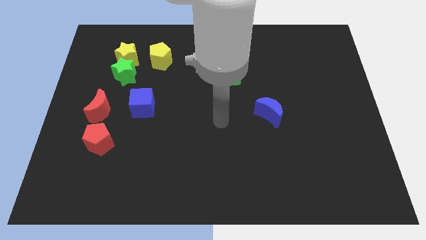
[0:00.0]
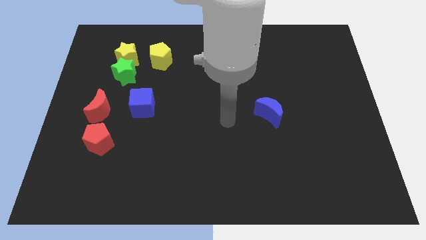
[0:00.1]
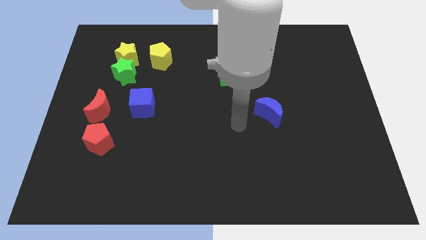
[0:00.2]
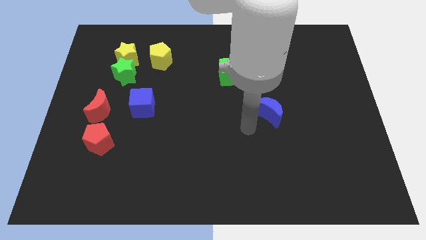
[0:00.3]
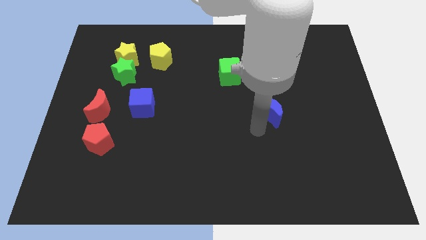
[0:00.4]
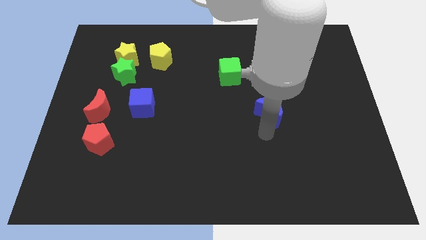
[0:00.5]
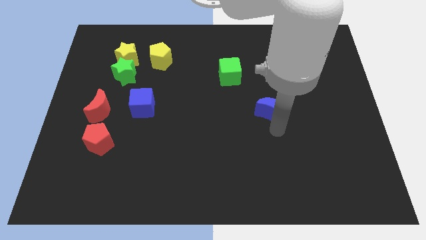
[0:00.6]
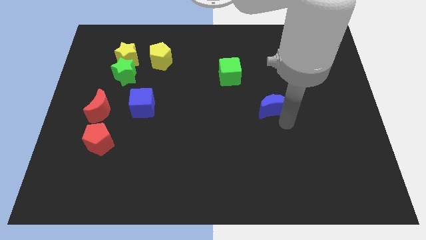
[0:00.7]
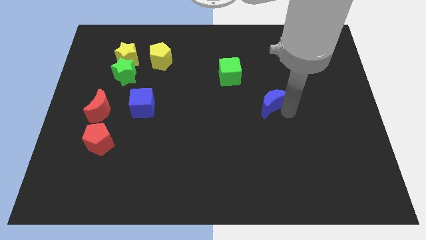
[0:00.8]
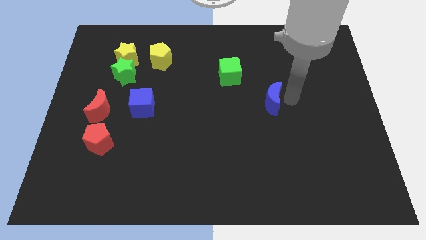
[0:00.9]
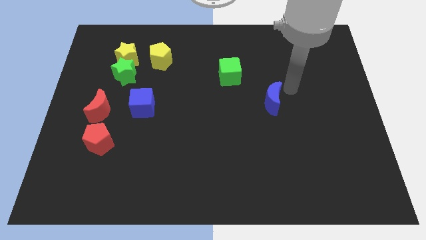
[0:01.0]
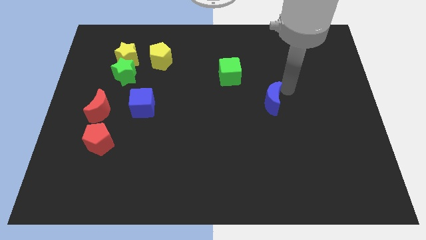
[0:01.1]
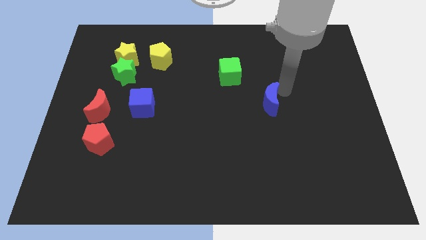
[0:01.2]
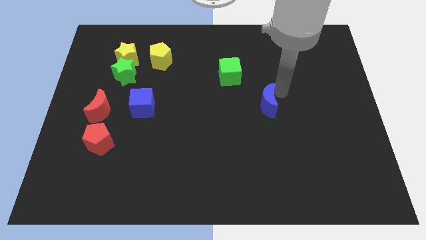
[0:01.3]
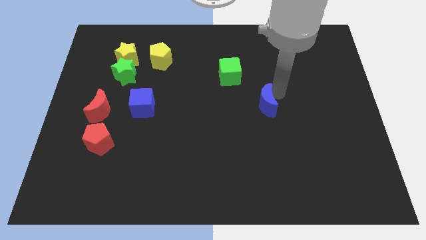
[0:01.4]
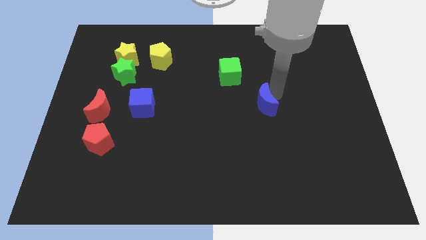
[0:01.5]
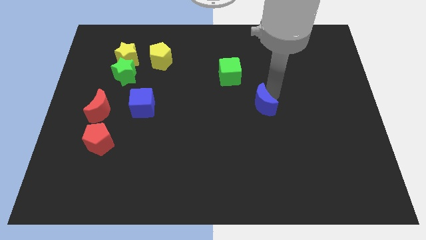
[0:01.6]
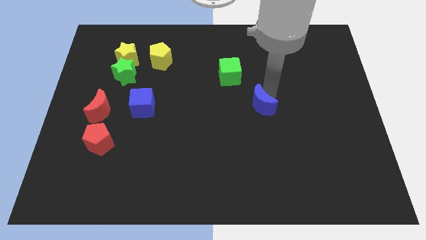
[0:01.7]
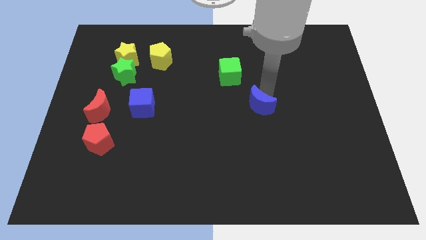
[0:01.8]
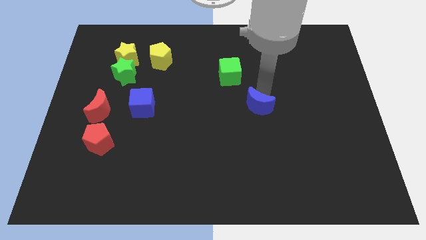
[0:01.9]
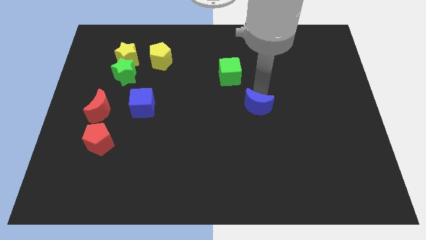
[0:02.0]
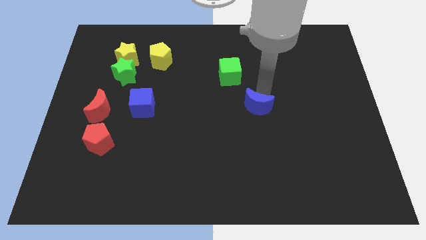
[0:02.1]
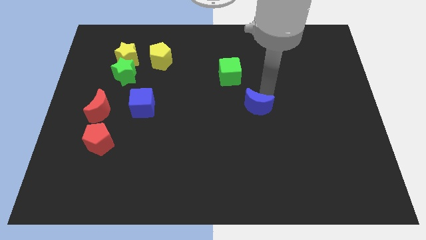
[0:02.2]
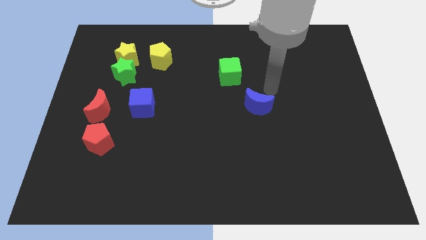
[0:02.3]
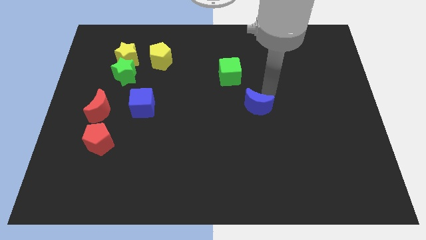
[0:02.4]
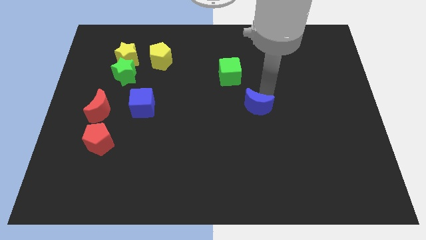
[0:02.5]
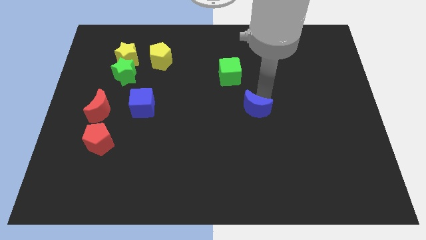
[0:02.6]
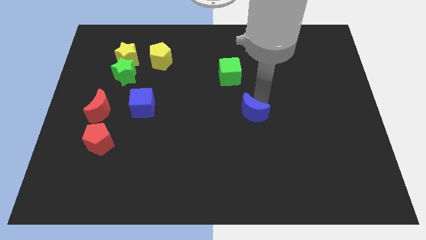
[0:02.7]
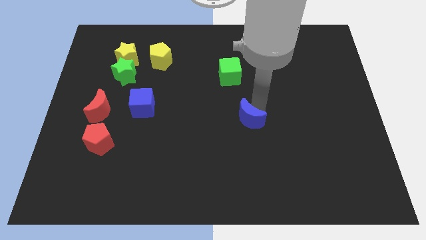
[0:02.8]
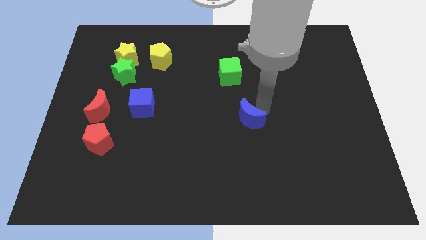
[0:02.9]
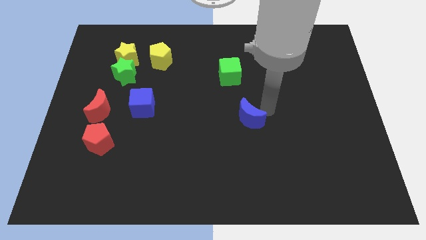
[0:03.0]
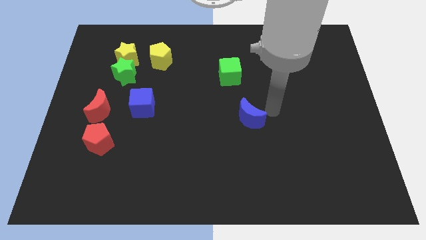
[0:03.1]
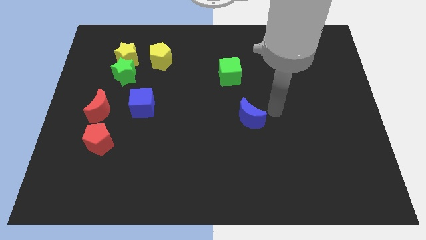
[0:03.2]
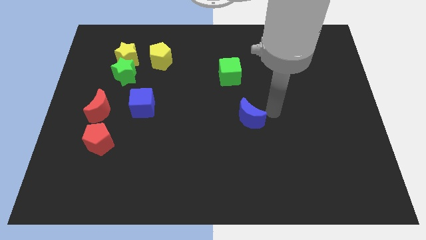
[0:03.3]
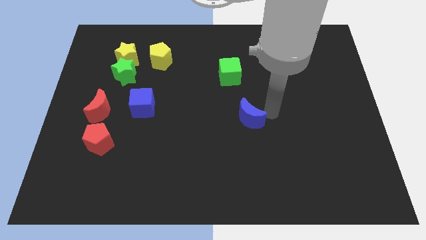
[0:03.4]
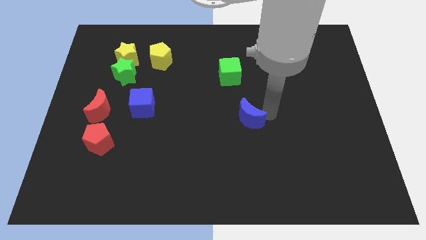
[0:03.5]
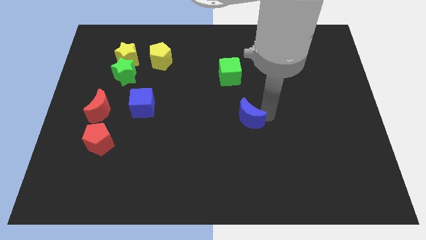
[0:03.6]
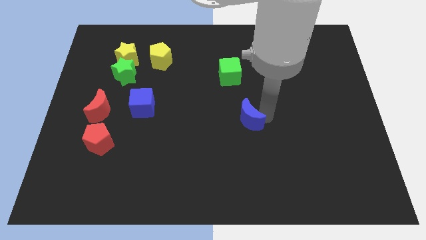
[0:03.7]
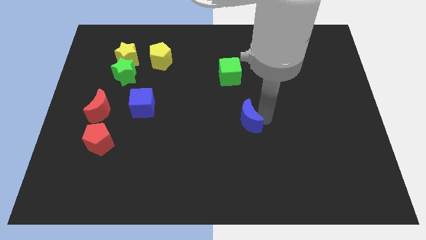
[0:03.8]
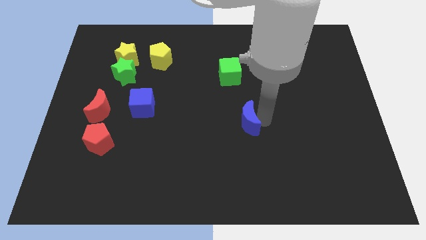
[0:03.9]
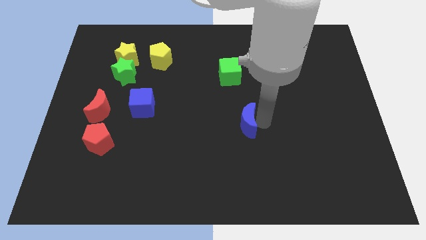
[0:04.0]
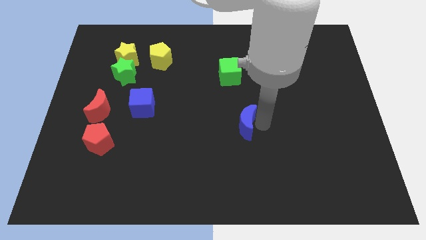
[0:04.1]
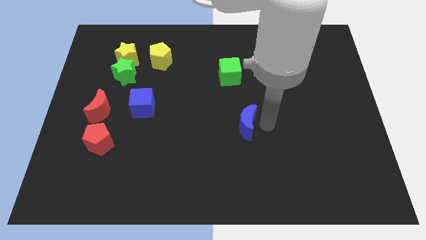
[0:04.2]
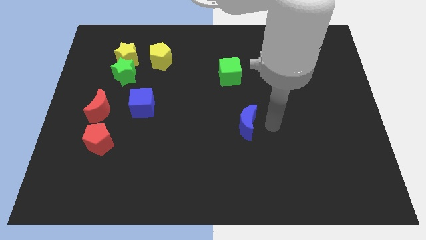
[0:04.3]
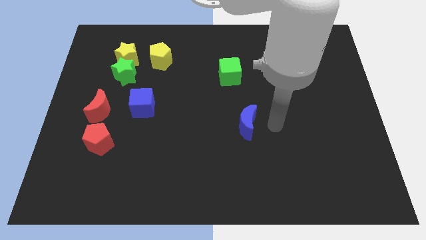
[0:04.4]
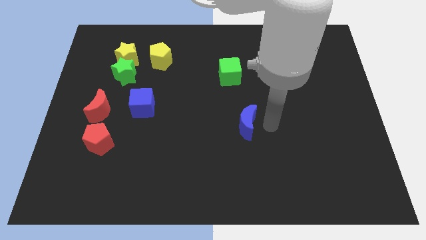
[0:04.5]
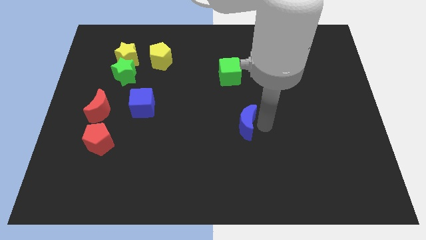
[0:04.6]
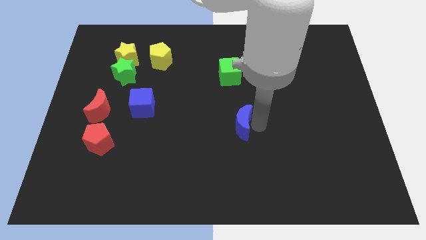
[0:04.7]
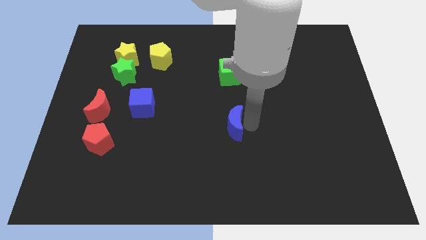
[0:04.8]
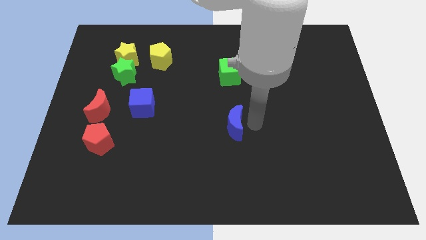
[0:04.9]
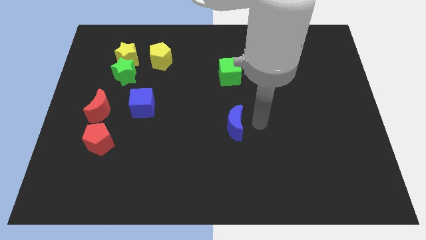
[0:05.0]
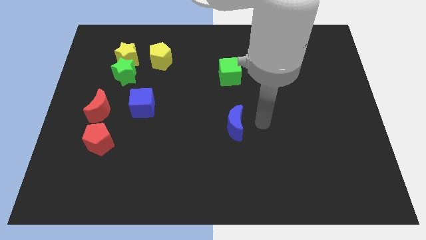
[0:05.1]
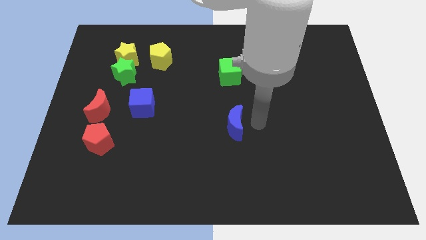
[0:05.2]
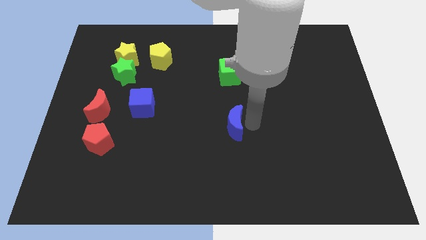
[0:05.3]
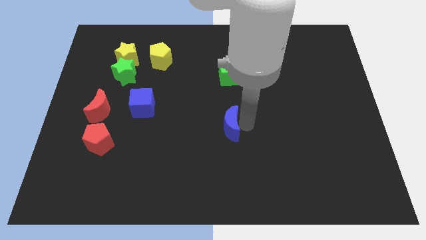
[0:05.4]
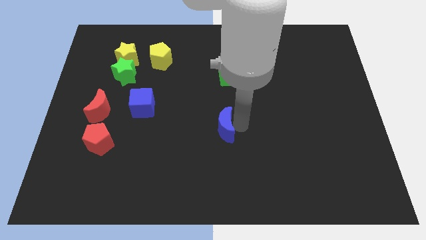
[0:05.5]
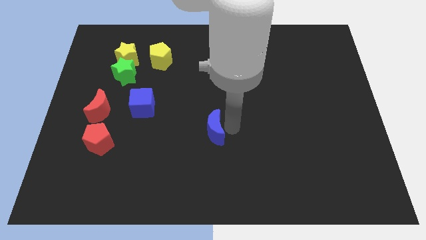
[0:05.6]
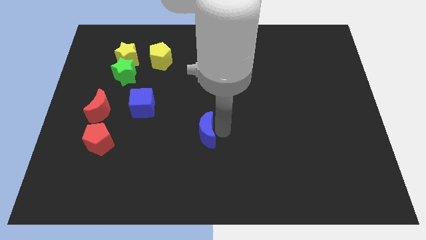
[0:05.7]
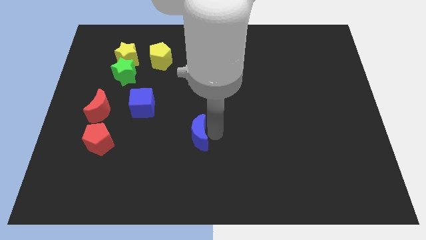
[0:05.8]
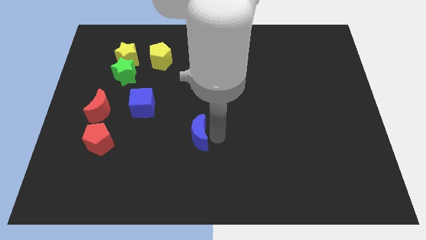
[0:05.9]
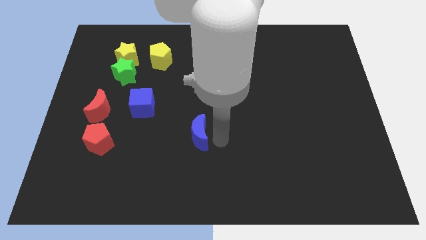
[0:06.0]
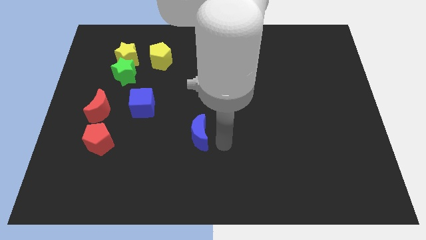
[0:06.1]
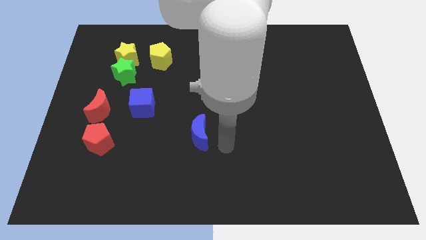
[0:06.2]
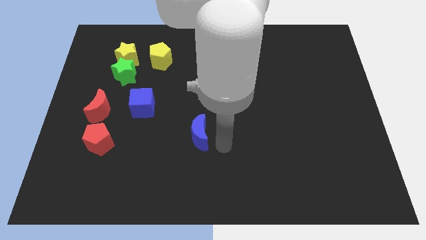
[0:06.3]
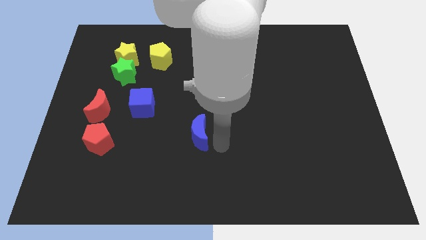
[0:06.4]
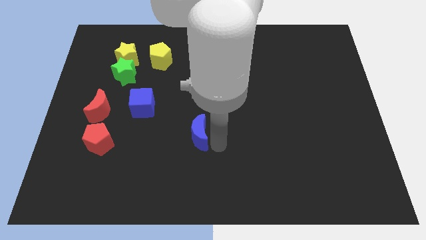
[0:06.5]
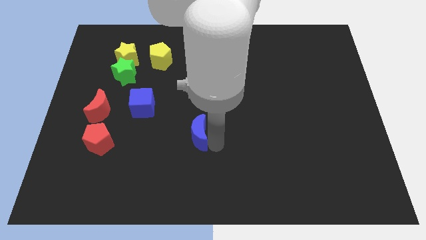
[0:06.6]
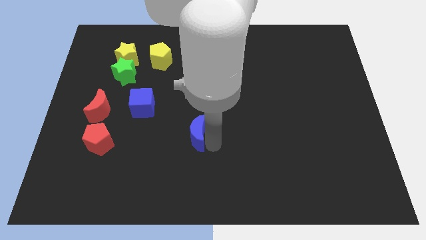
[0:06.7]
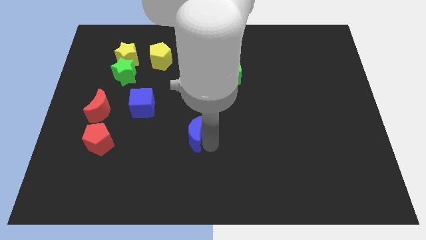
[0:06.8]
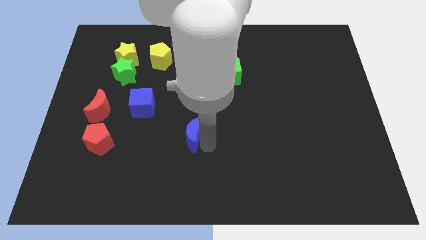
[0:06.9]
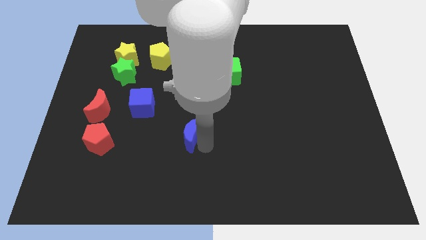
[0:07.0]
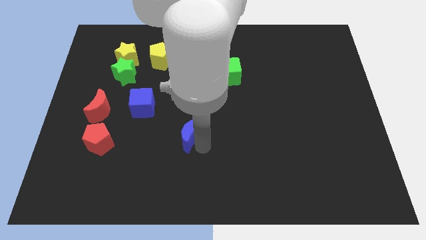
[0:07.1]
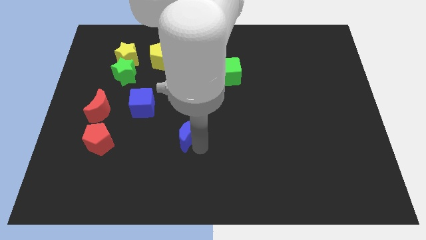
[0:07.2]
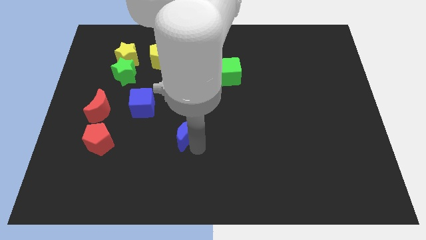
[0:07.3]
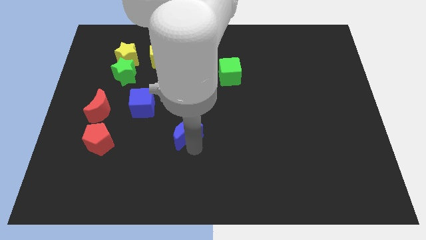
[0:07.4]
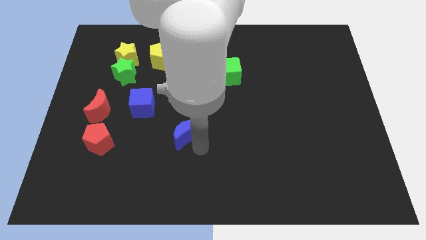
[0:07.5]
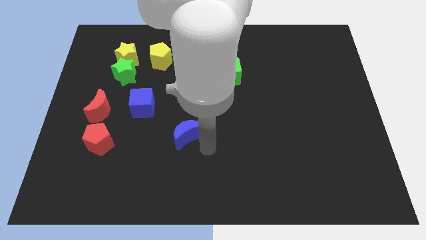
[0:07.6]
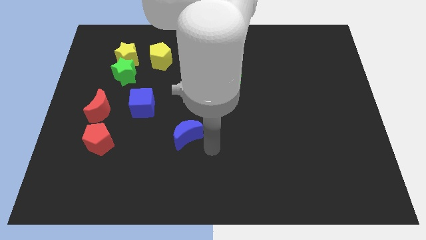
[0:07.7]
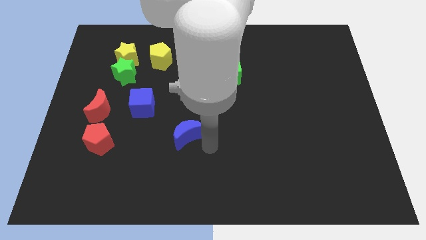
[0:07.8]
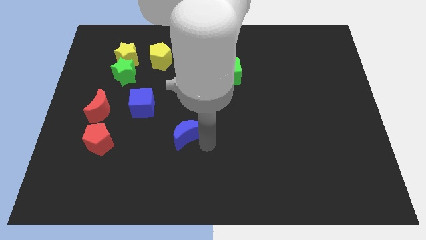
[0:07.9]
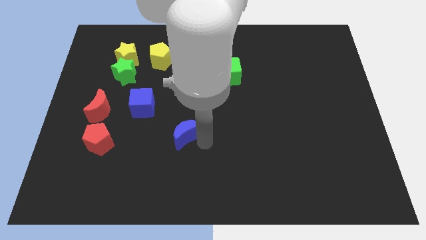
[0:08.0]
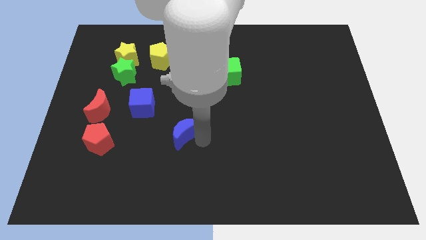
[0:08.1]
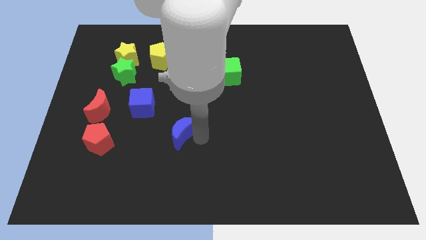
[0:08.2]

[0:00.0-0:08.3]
move the blue moon to the bottom right of the blue cube
